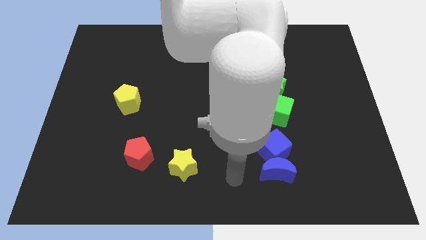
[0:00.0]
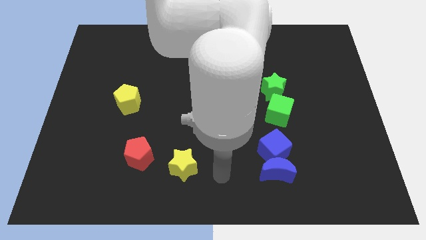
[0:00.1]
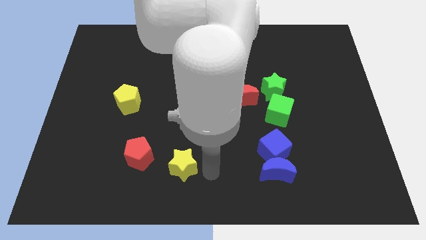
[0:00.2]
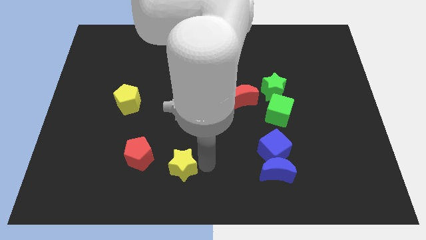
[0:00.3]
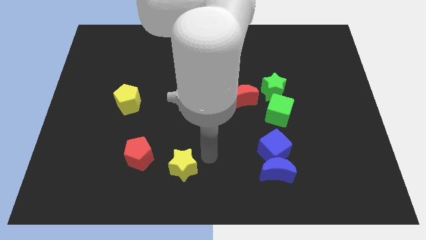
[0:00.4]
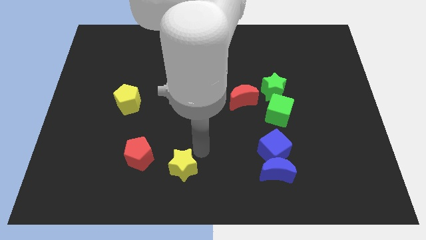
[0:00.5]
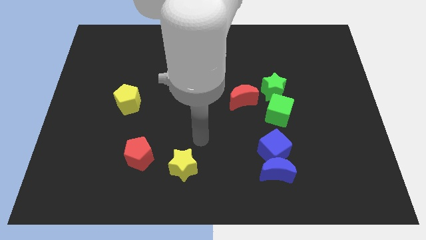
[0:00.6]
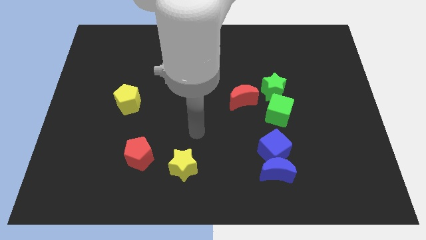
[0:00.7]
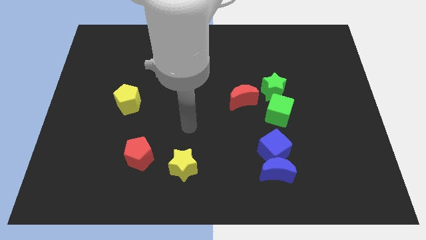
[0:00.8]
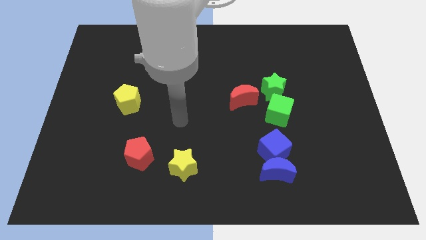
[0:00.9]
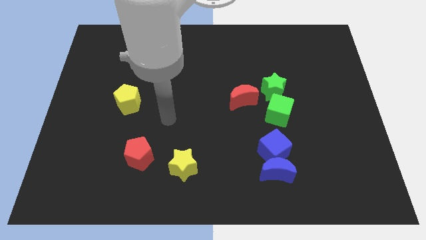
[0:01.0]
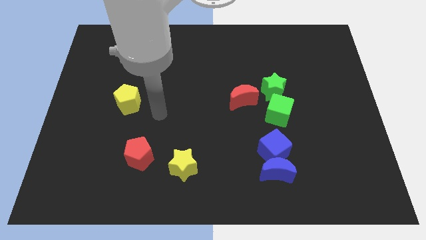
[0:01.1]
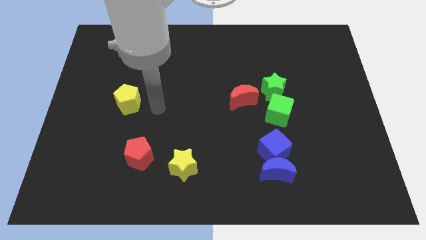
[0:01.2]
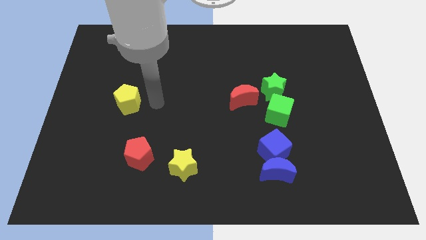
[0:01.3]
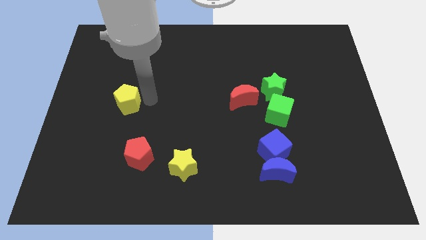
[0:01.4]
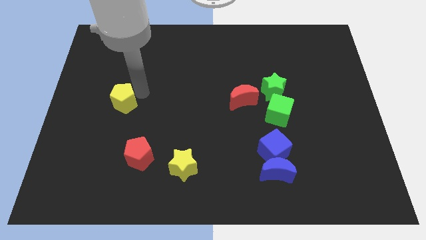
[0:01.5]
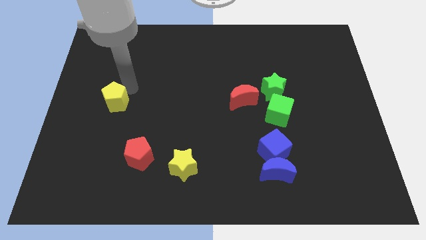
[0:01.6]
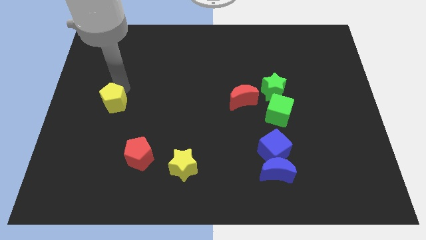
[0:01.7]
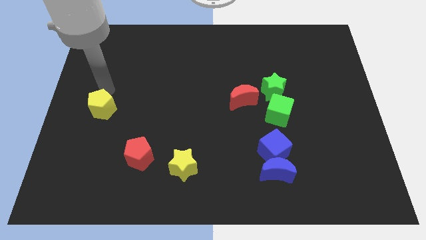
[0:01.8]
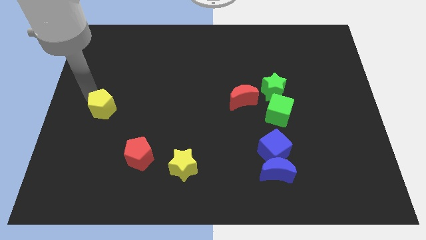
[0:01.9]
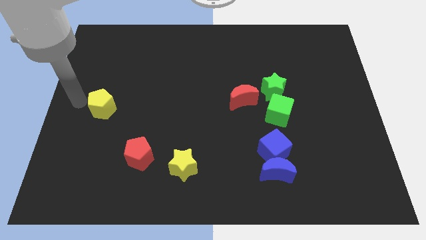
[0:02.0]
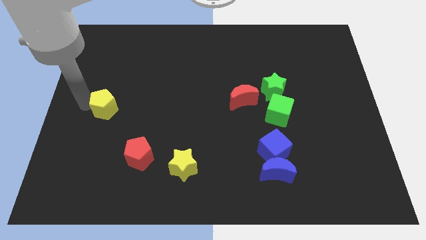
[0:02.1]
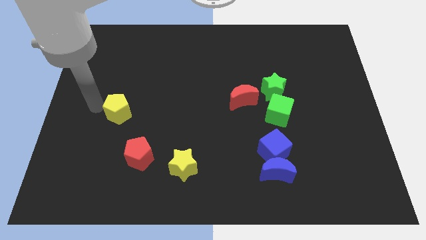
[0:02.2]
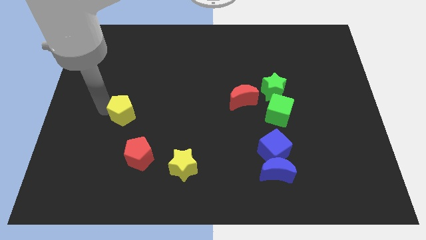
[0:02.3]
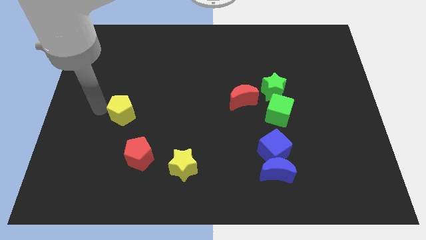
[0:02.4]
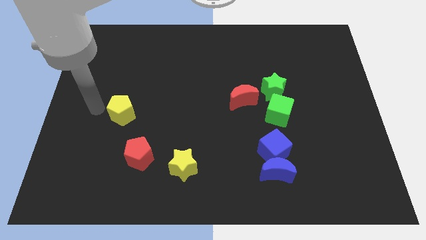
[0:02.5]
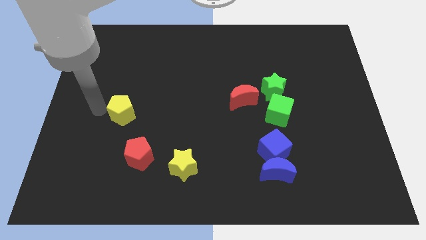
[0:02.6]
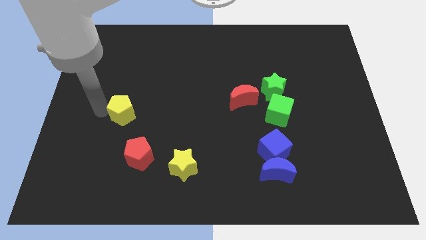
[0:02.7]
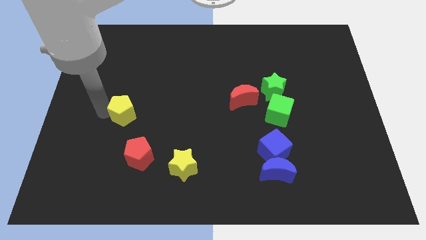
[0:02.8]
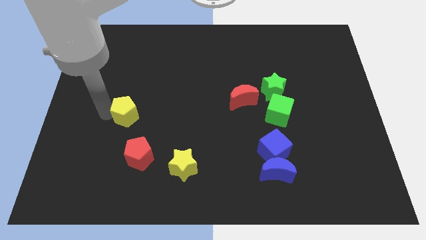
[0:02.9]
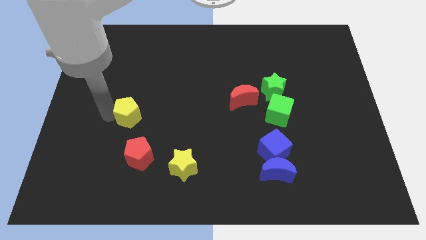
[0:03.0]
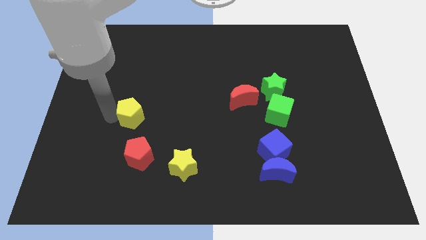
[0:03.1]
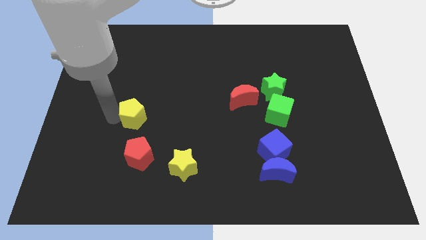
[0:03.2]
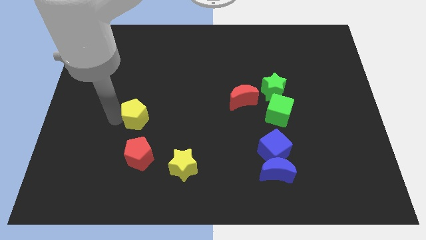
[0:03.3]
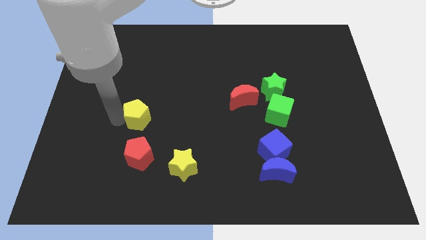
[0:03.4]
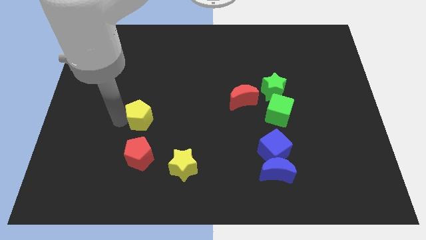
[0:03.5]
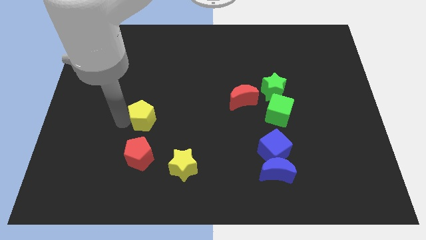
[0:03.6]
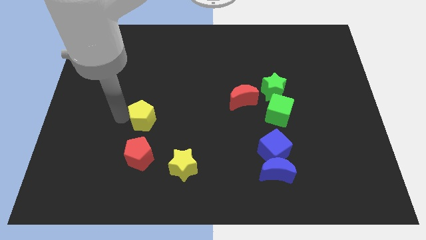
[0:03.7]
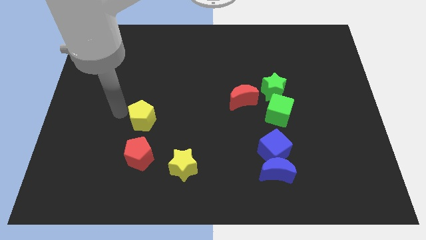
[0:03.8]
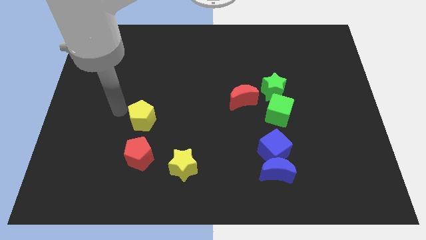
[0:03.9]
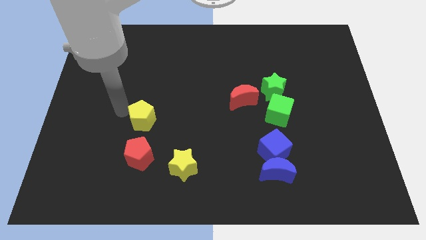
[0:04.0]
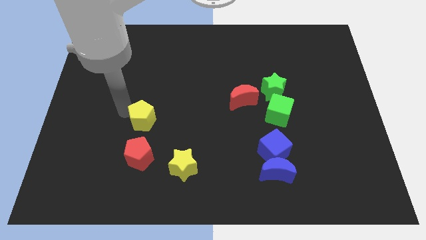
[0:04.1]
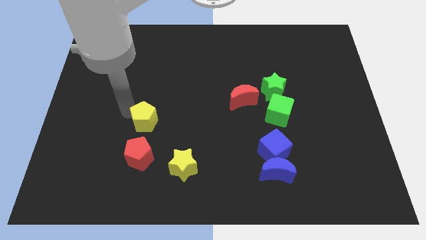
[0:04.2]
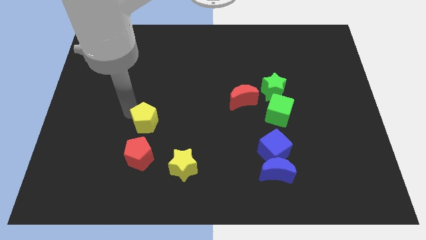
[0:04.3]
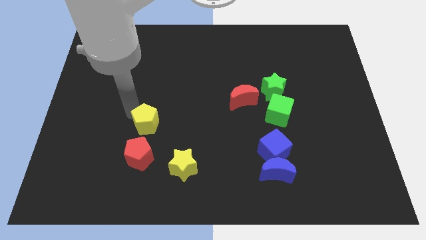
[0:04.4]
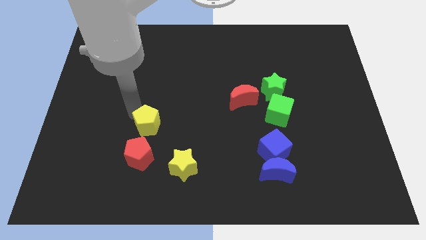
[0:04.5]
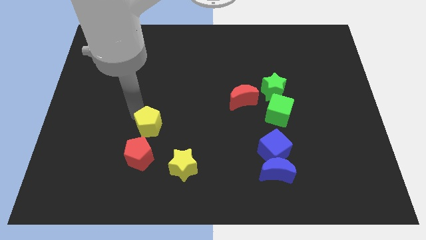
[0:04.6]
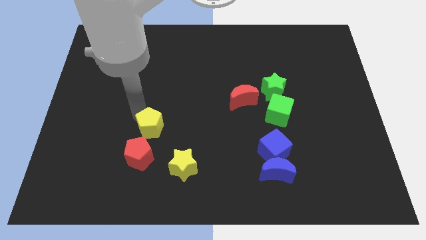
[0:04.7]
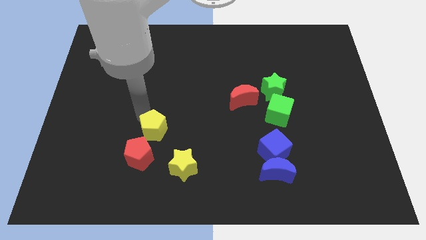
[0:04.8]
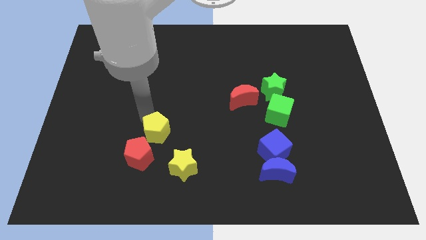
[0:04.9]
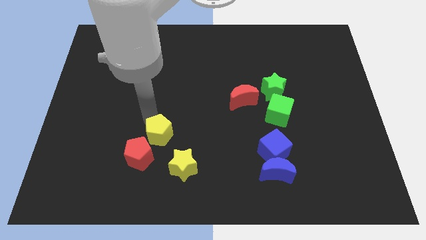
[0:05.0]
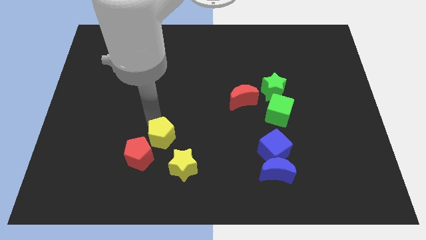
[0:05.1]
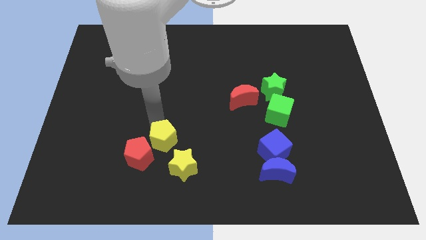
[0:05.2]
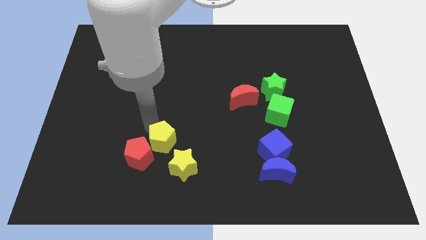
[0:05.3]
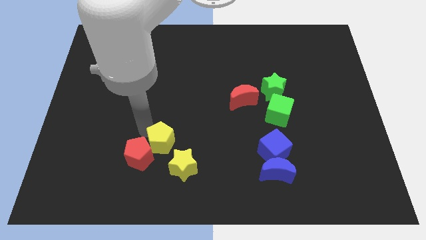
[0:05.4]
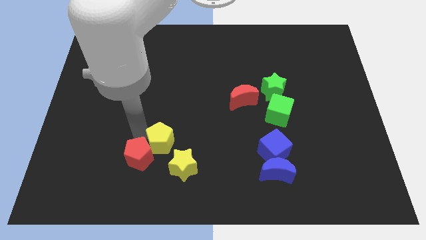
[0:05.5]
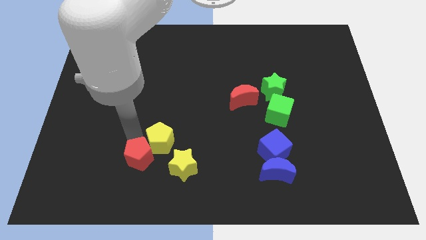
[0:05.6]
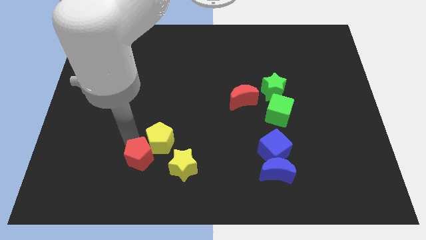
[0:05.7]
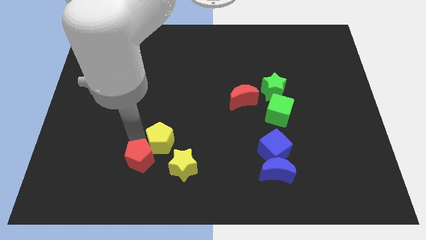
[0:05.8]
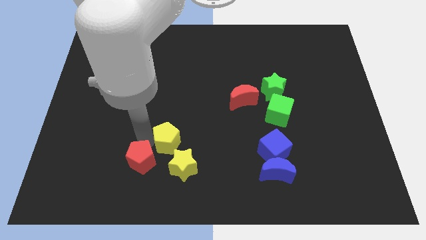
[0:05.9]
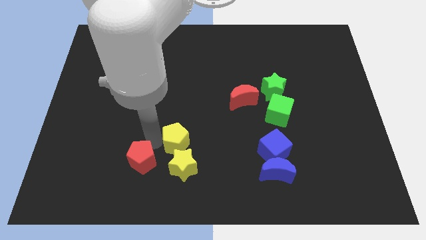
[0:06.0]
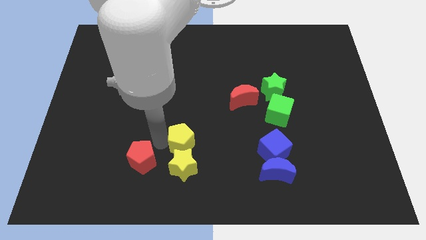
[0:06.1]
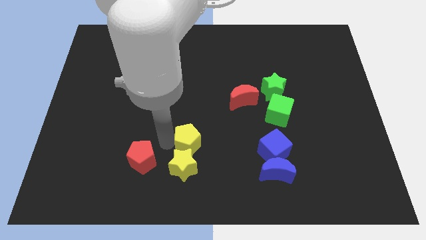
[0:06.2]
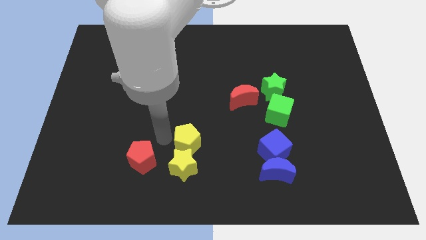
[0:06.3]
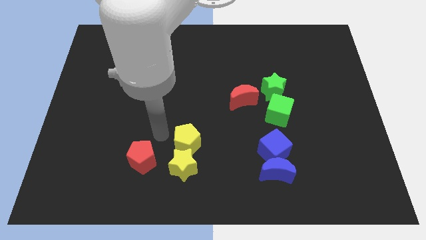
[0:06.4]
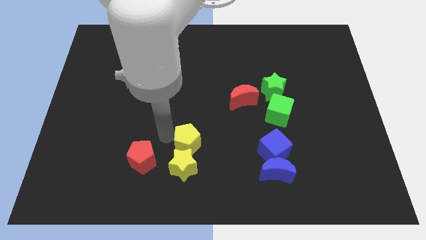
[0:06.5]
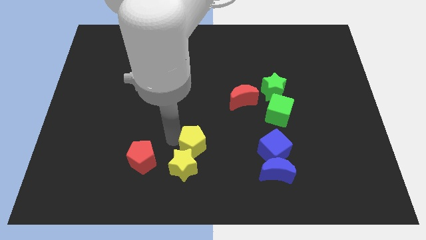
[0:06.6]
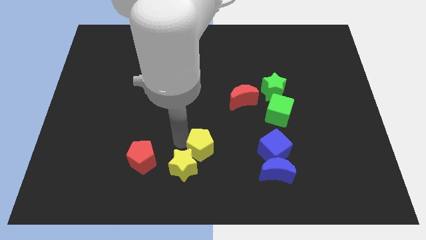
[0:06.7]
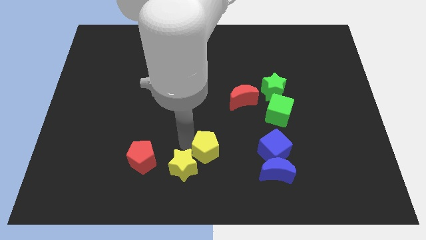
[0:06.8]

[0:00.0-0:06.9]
put the yellow pentagon to the right of the yellow star
